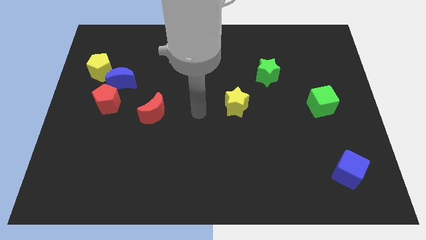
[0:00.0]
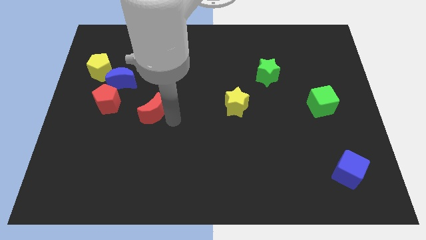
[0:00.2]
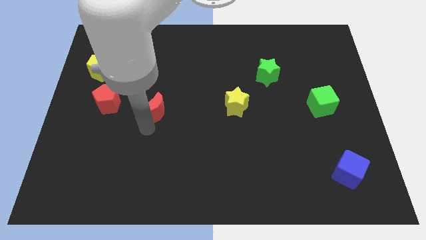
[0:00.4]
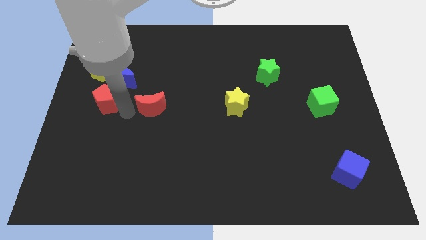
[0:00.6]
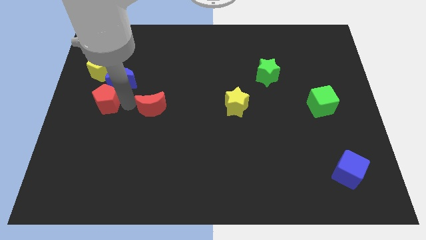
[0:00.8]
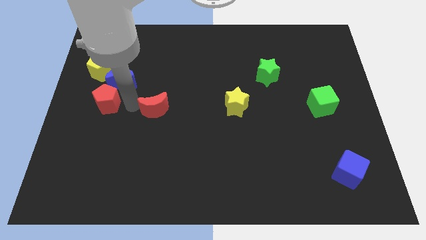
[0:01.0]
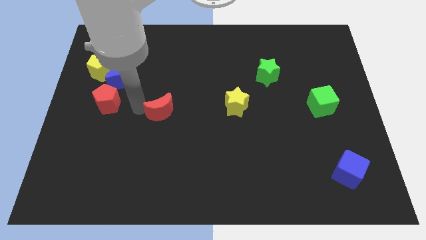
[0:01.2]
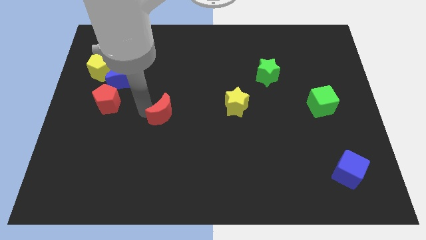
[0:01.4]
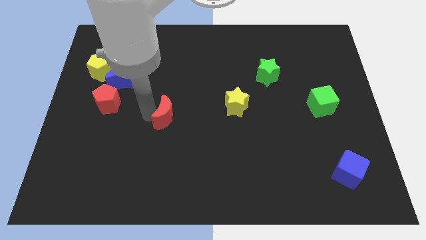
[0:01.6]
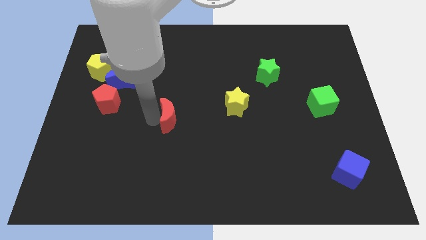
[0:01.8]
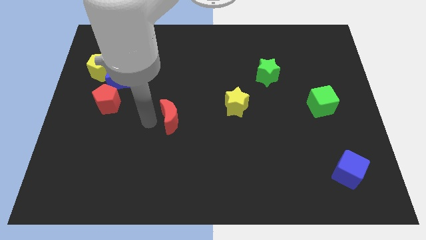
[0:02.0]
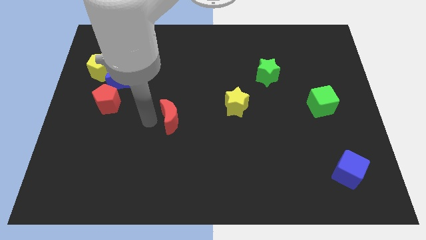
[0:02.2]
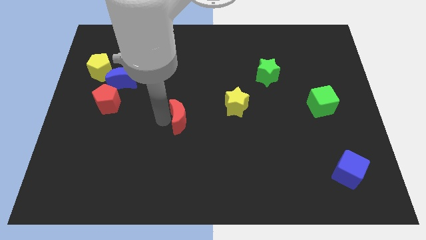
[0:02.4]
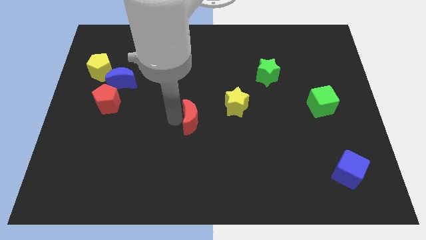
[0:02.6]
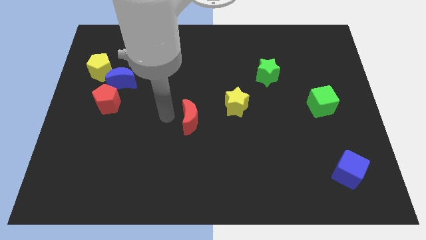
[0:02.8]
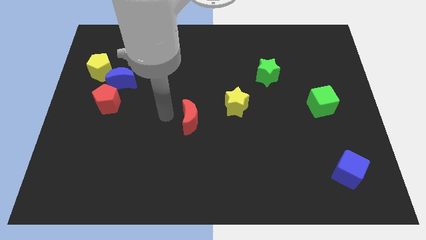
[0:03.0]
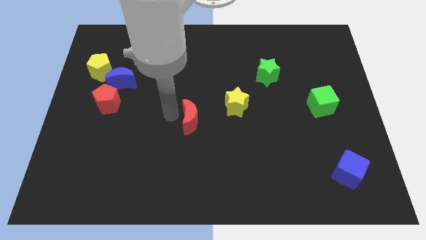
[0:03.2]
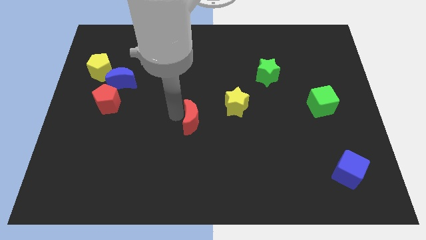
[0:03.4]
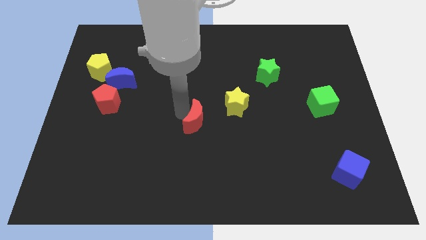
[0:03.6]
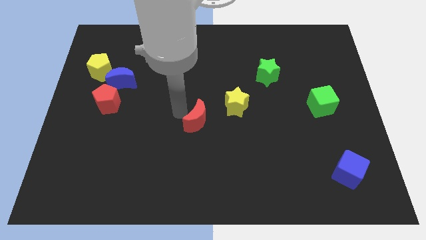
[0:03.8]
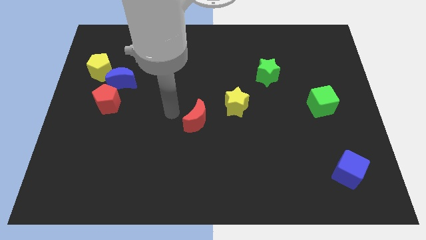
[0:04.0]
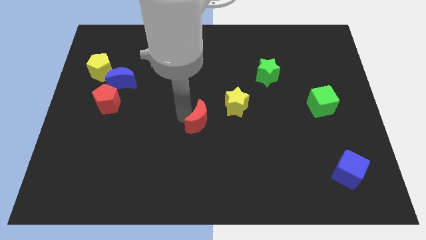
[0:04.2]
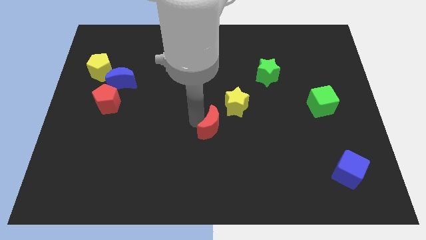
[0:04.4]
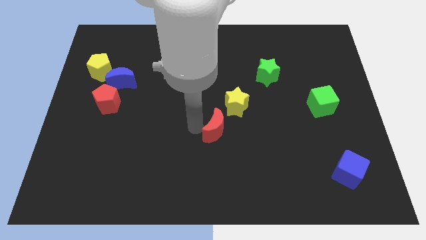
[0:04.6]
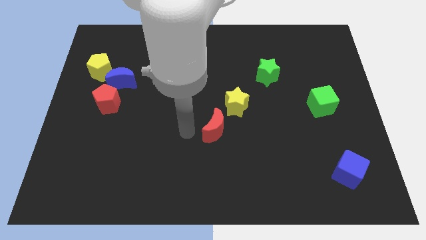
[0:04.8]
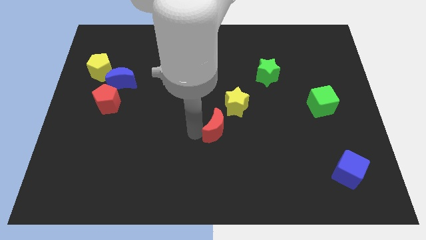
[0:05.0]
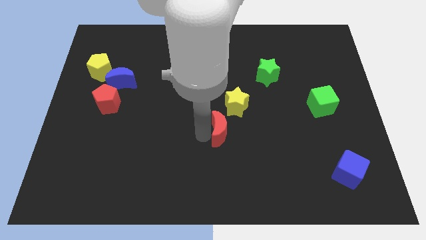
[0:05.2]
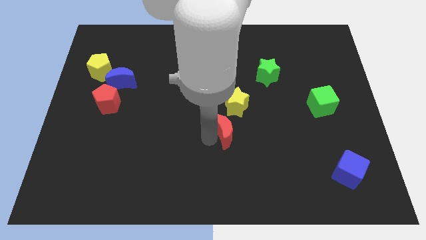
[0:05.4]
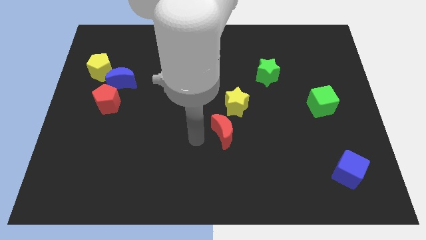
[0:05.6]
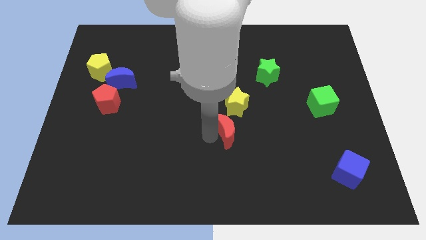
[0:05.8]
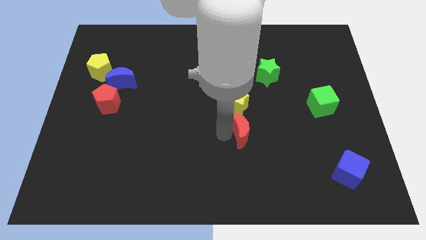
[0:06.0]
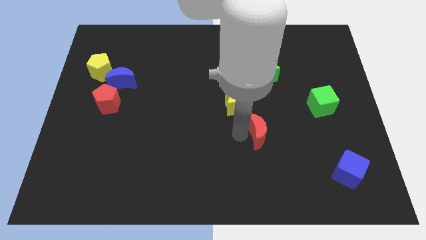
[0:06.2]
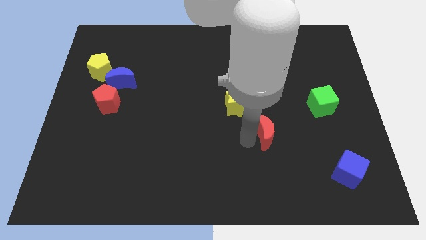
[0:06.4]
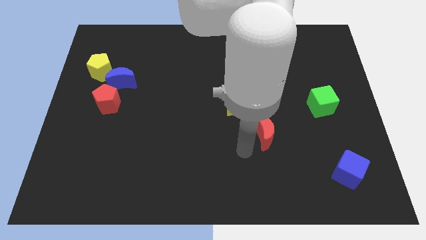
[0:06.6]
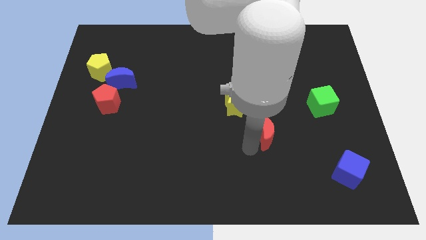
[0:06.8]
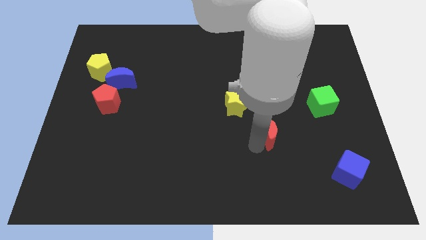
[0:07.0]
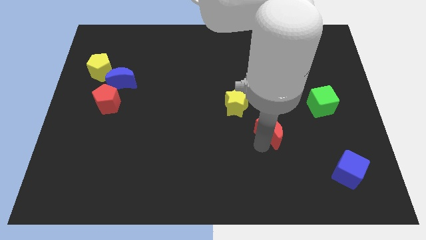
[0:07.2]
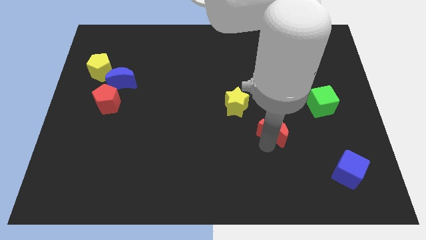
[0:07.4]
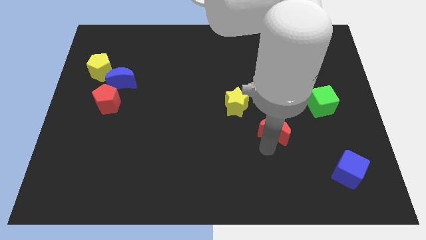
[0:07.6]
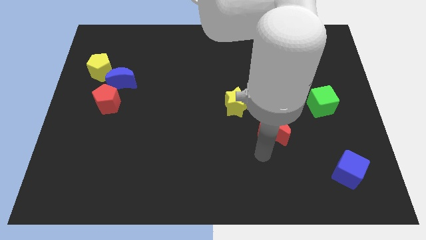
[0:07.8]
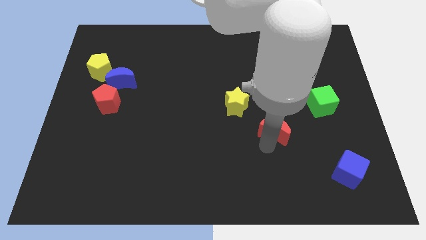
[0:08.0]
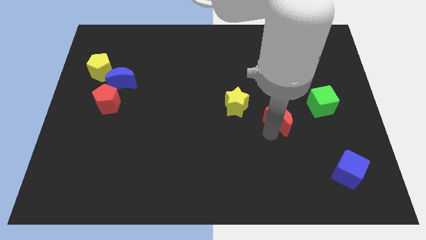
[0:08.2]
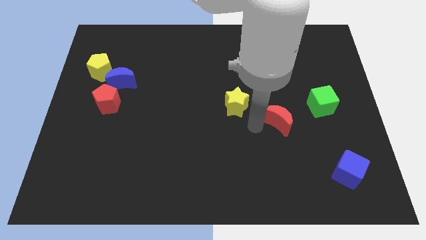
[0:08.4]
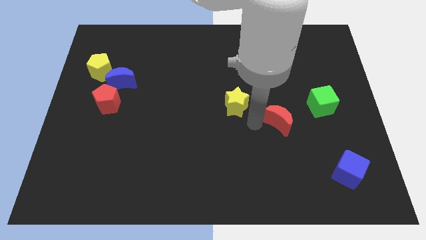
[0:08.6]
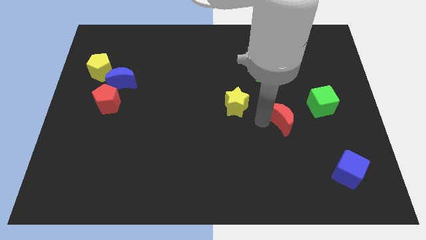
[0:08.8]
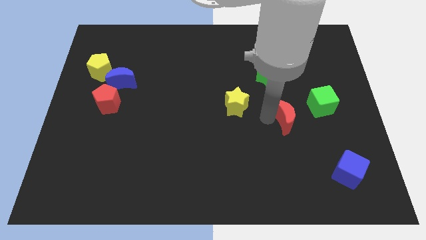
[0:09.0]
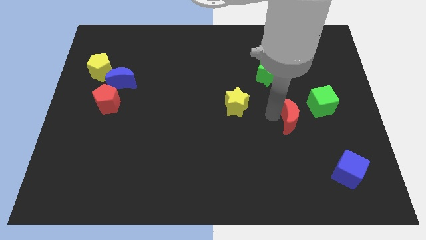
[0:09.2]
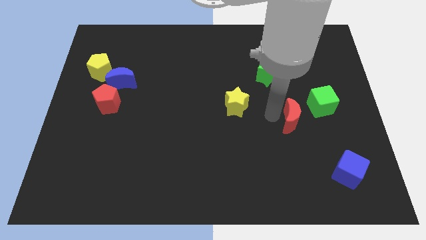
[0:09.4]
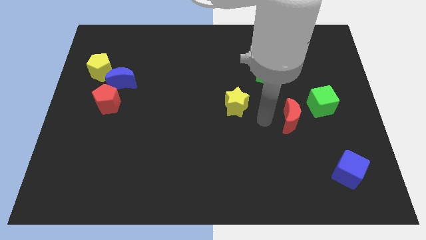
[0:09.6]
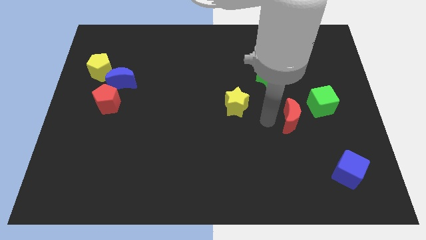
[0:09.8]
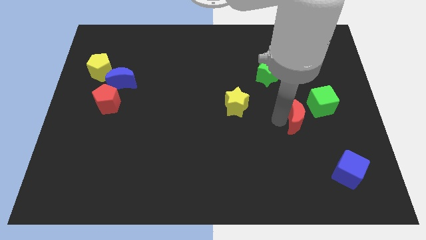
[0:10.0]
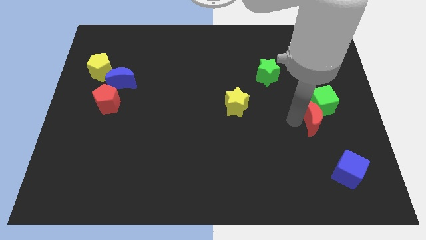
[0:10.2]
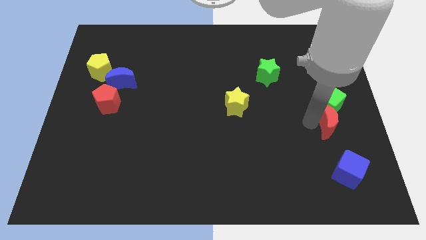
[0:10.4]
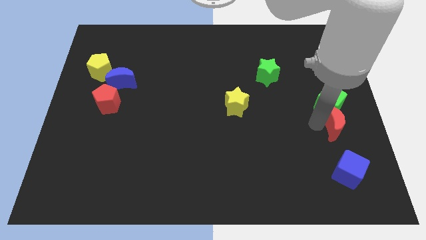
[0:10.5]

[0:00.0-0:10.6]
put the red moon to the right side of the board
